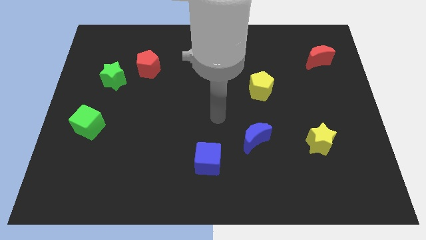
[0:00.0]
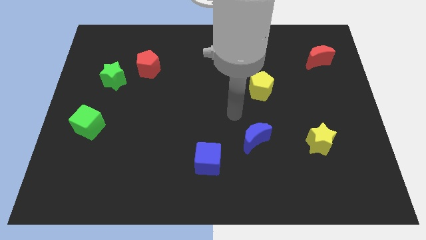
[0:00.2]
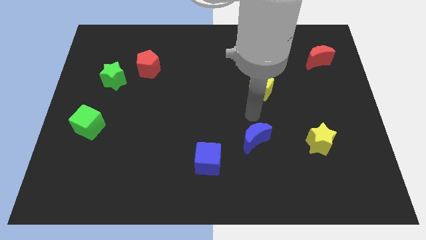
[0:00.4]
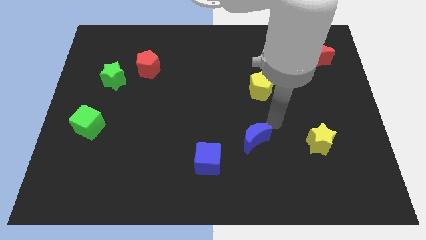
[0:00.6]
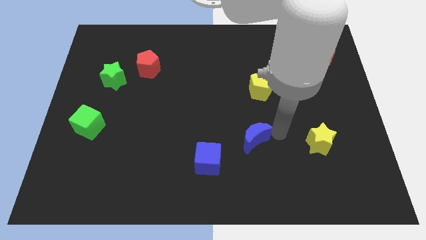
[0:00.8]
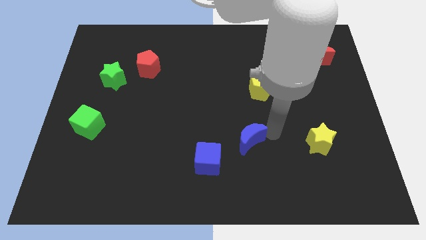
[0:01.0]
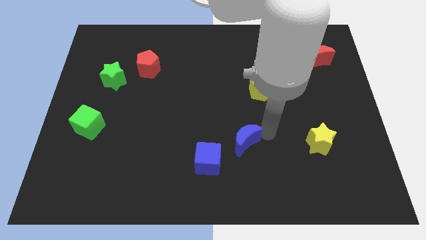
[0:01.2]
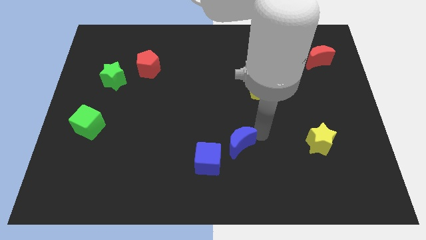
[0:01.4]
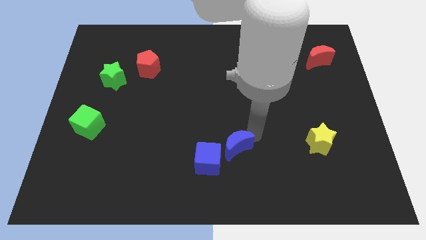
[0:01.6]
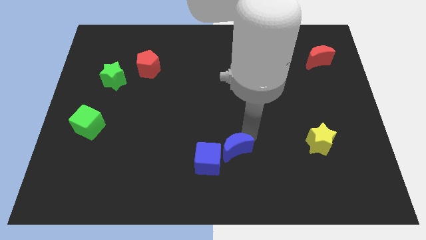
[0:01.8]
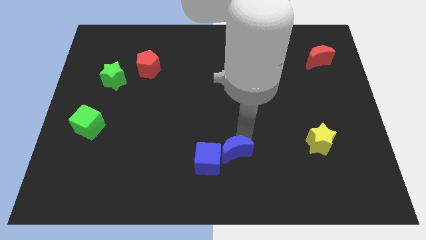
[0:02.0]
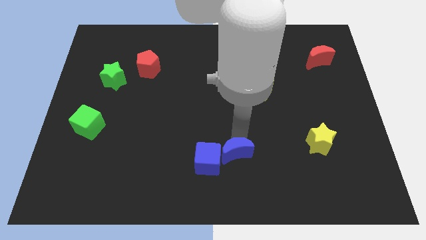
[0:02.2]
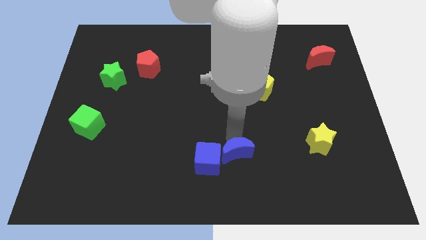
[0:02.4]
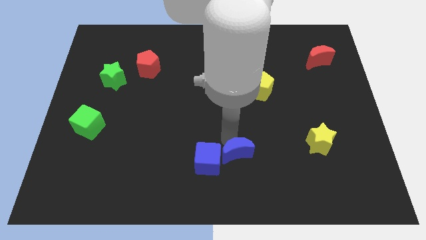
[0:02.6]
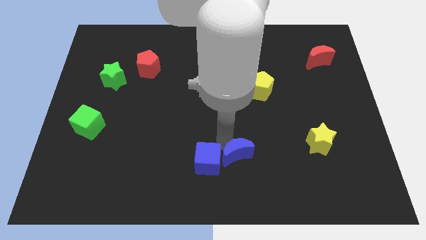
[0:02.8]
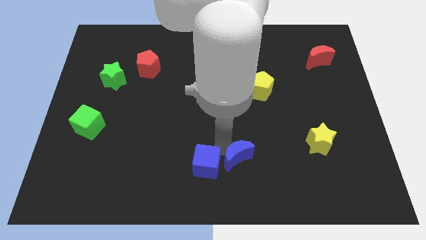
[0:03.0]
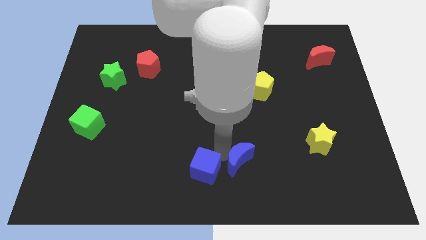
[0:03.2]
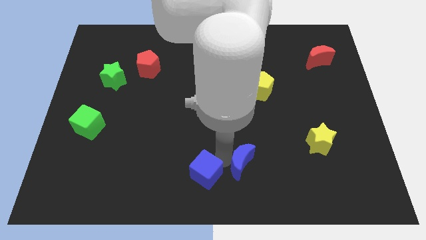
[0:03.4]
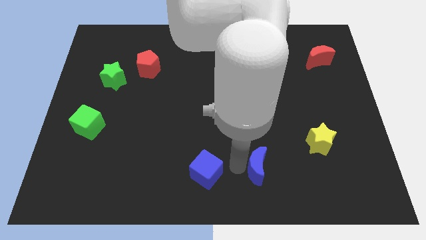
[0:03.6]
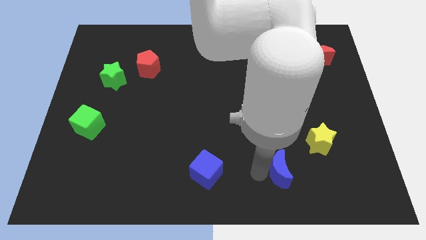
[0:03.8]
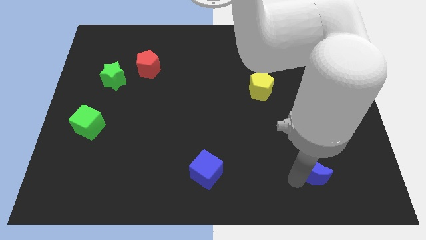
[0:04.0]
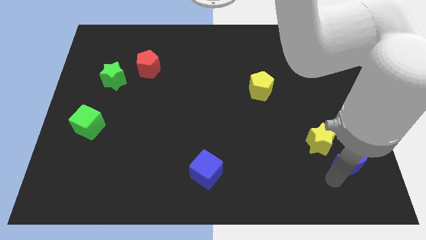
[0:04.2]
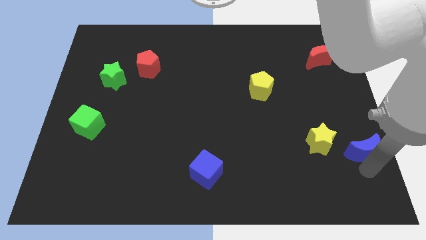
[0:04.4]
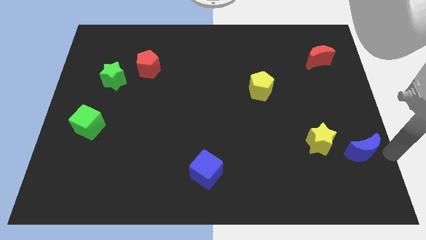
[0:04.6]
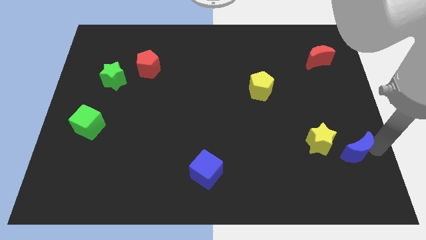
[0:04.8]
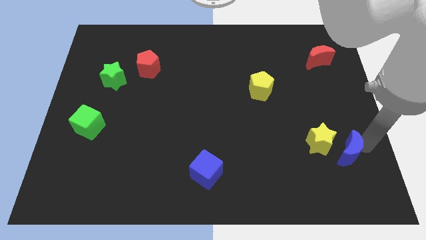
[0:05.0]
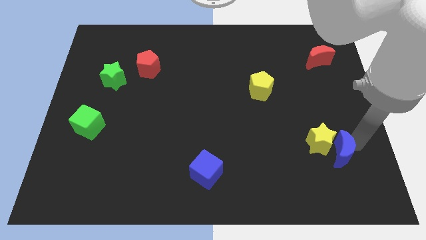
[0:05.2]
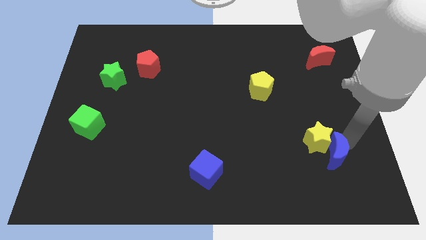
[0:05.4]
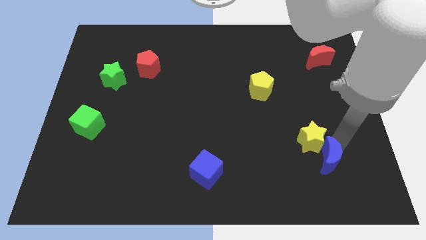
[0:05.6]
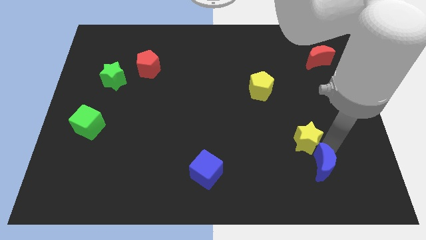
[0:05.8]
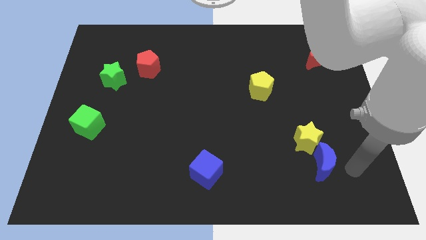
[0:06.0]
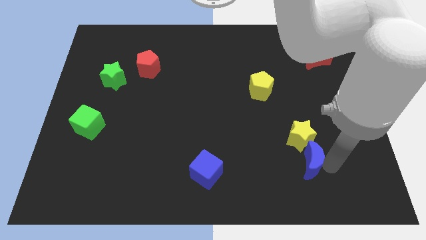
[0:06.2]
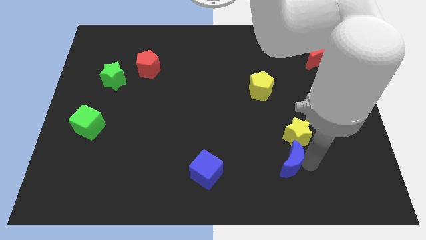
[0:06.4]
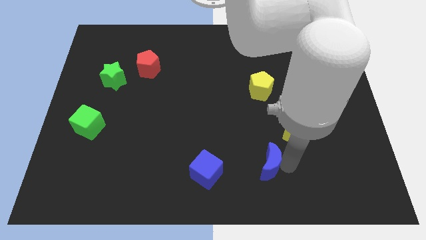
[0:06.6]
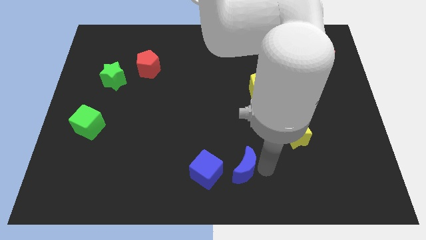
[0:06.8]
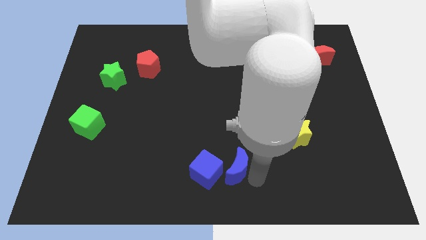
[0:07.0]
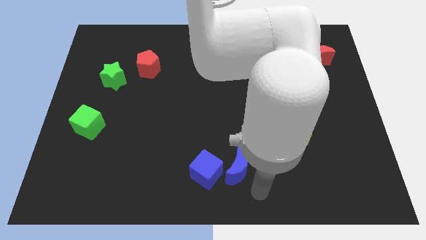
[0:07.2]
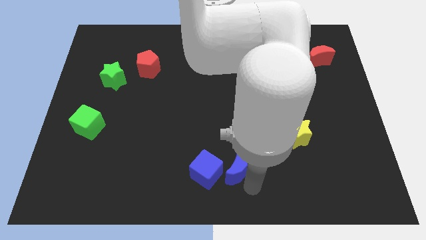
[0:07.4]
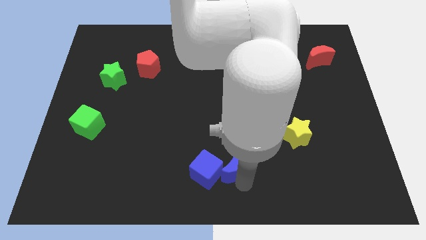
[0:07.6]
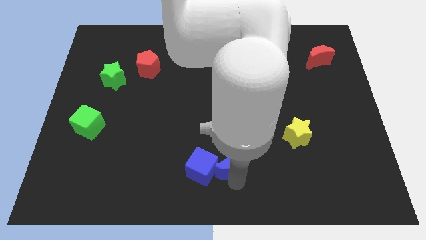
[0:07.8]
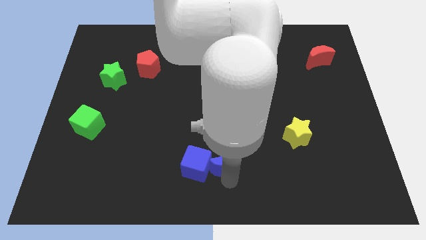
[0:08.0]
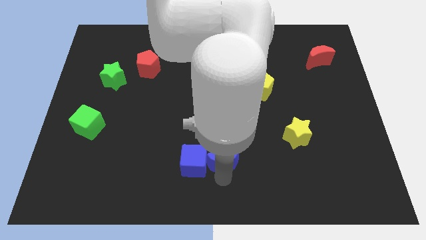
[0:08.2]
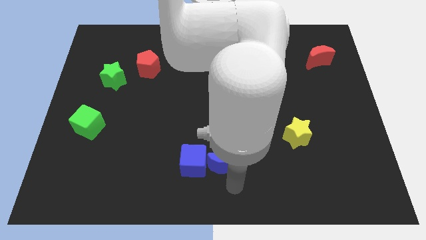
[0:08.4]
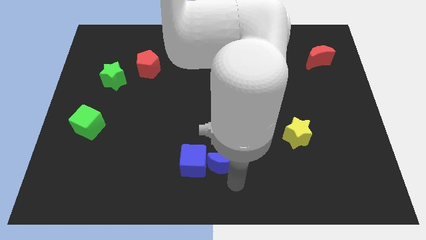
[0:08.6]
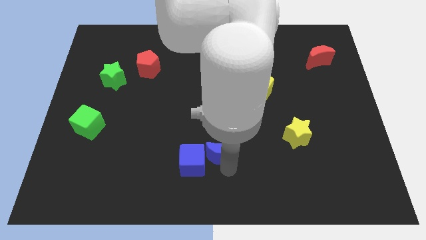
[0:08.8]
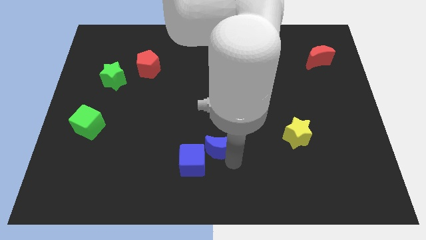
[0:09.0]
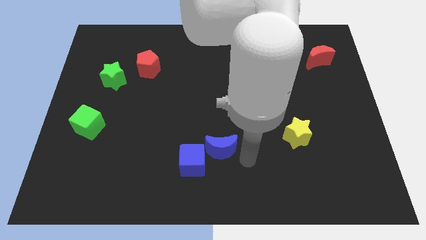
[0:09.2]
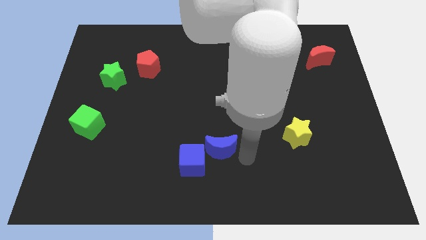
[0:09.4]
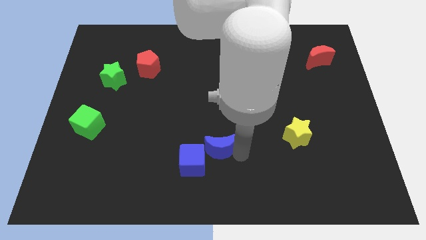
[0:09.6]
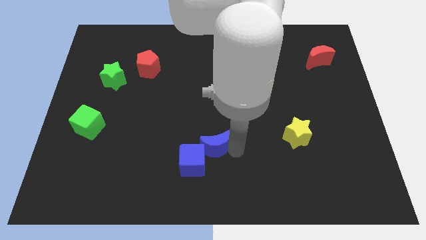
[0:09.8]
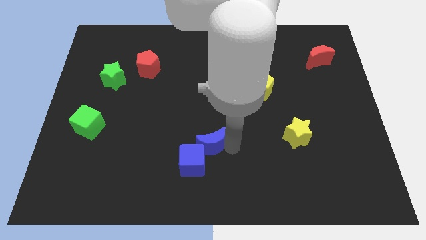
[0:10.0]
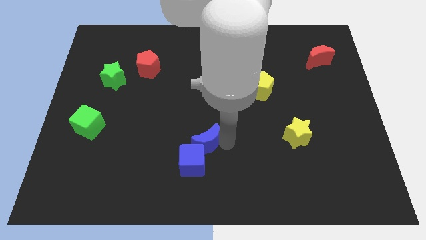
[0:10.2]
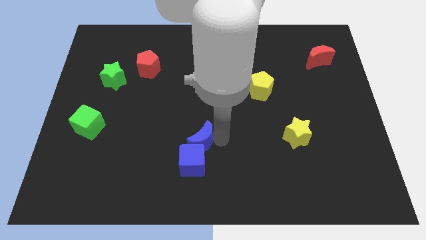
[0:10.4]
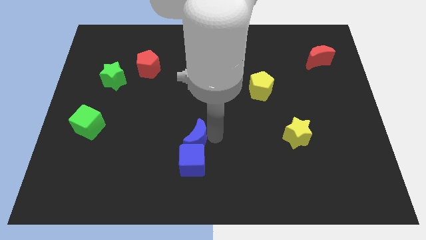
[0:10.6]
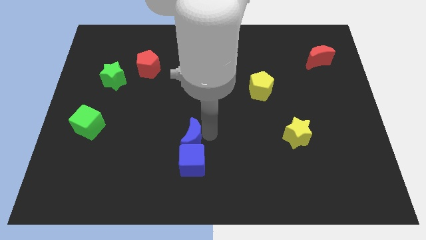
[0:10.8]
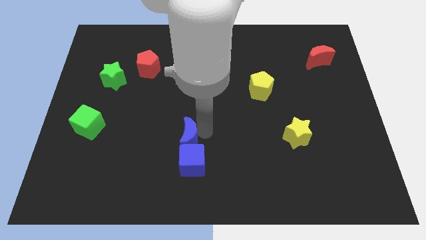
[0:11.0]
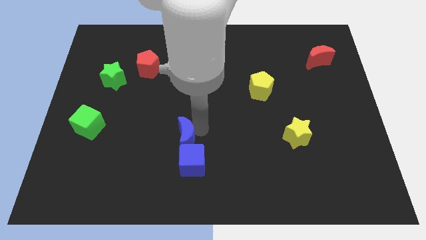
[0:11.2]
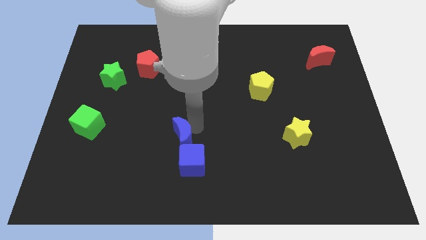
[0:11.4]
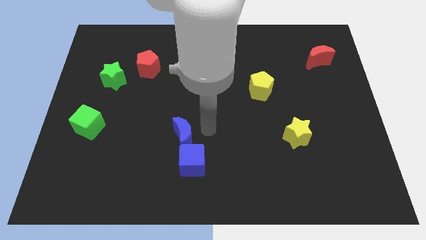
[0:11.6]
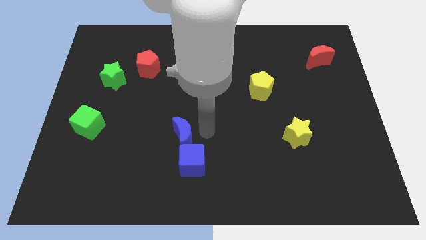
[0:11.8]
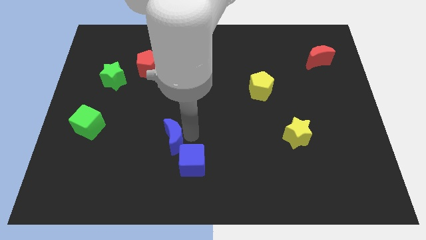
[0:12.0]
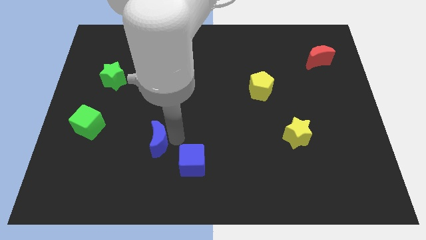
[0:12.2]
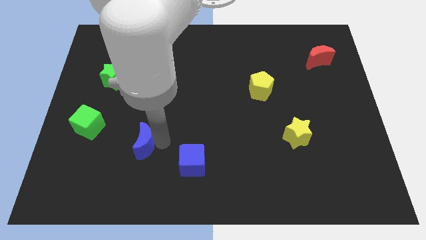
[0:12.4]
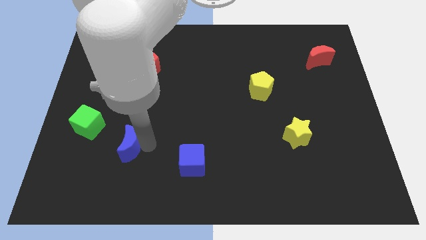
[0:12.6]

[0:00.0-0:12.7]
put the blue moon to the bottom right side of the green cube
